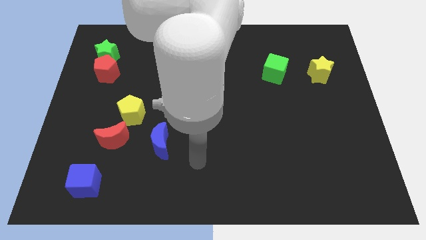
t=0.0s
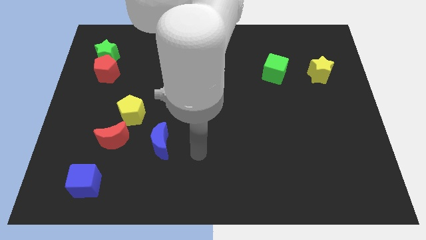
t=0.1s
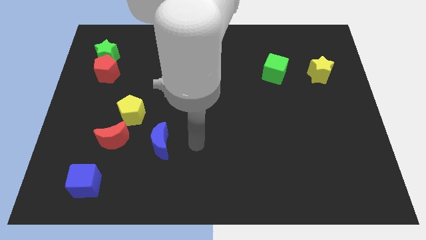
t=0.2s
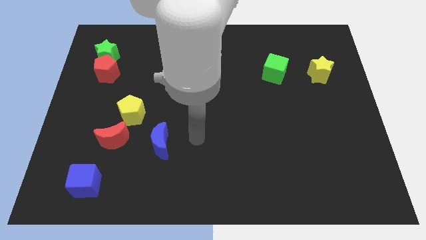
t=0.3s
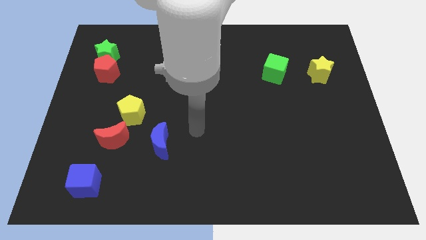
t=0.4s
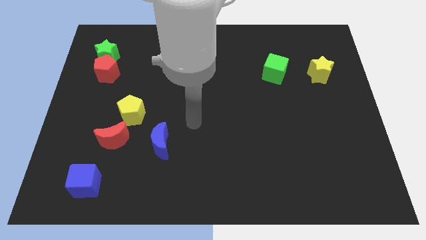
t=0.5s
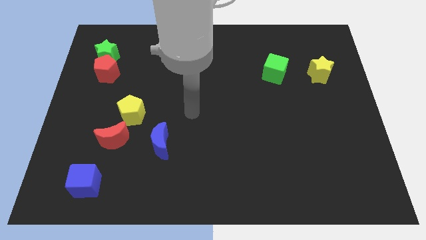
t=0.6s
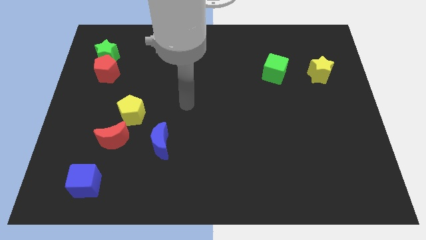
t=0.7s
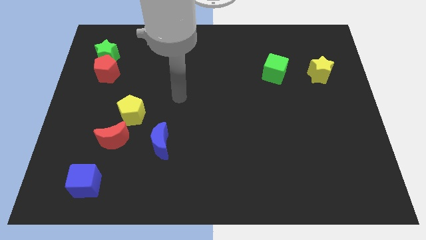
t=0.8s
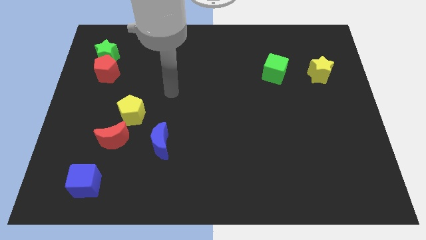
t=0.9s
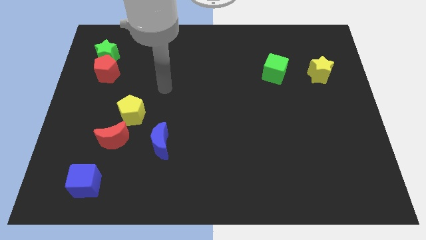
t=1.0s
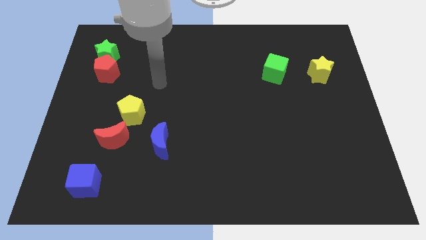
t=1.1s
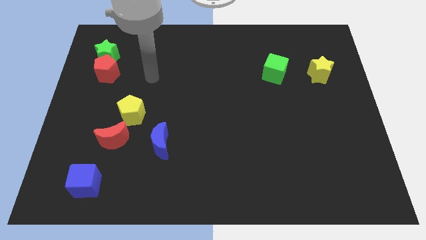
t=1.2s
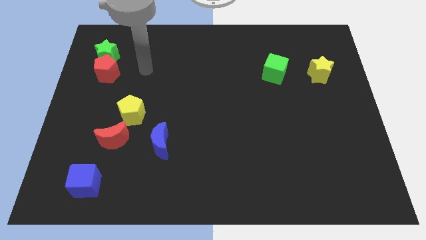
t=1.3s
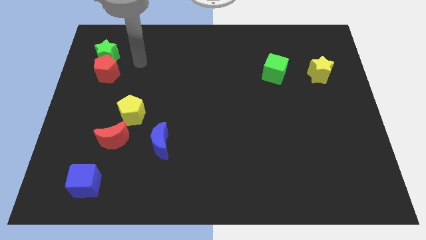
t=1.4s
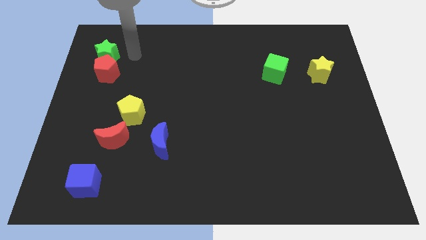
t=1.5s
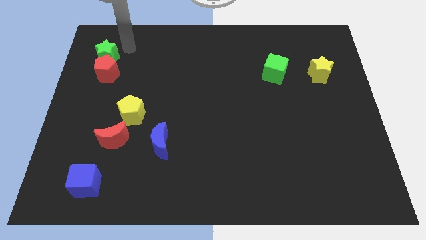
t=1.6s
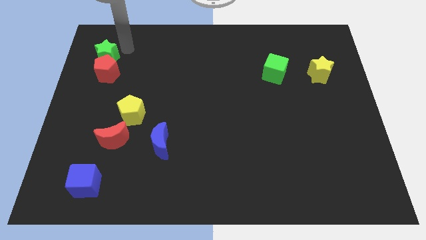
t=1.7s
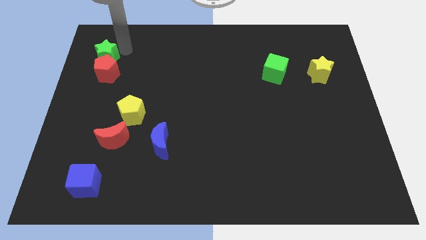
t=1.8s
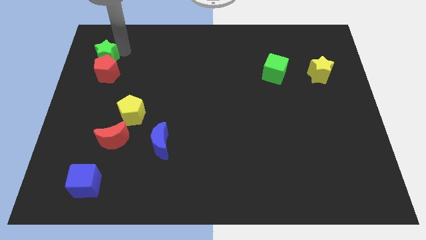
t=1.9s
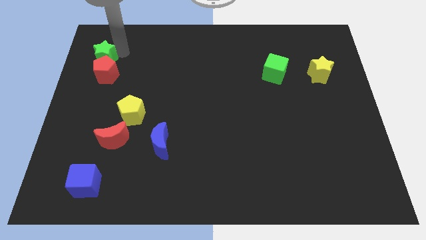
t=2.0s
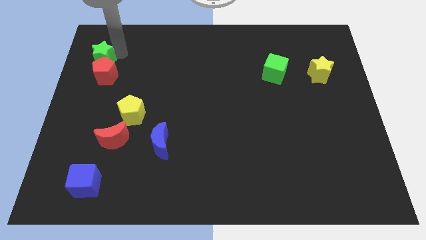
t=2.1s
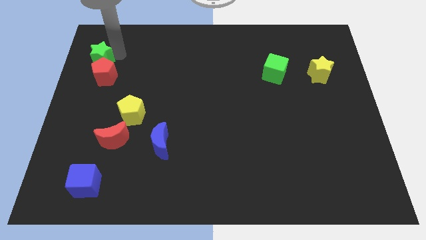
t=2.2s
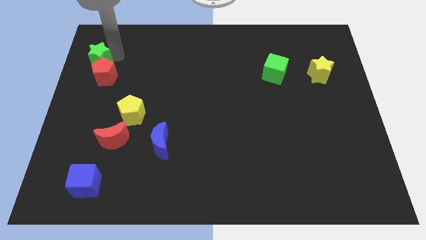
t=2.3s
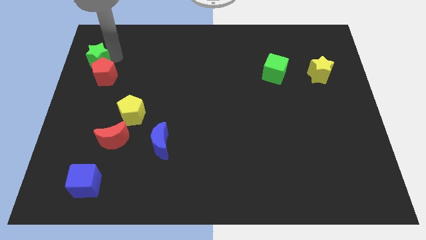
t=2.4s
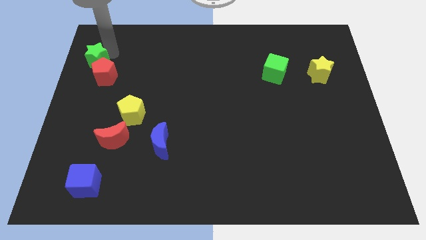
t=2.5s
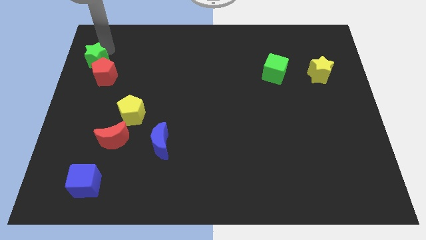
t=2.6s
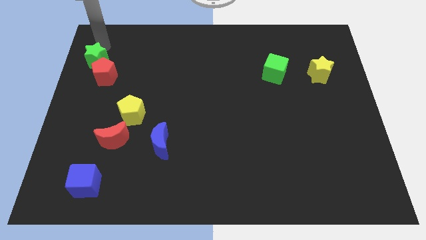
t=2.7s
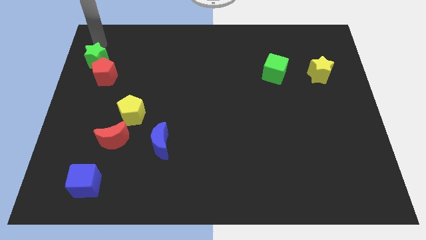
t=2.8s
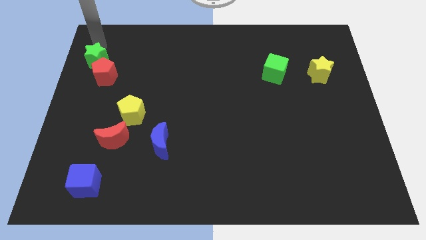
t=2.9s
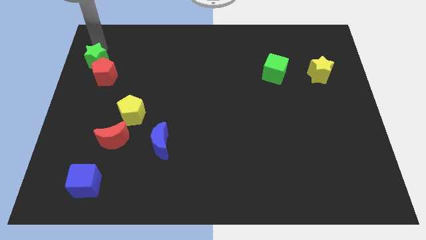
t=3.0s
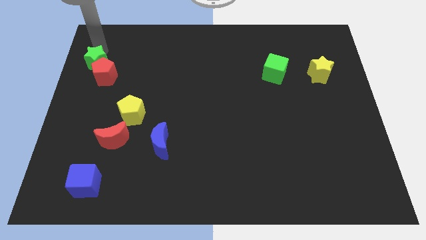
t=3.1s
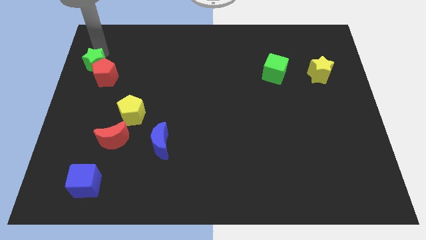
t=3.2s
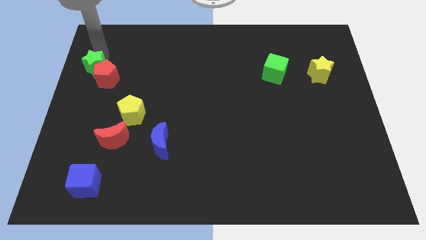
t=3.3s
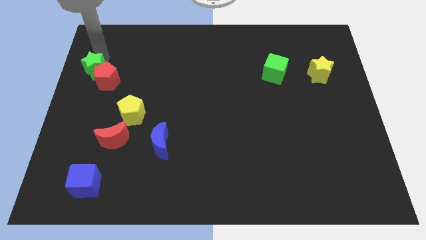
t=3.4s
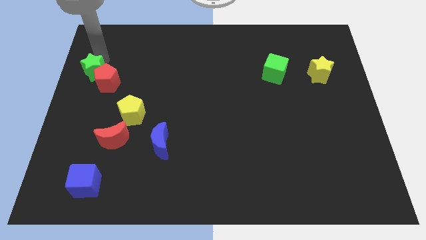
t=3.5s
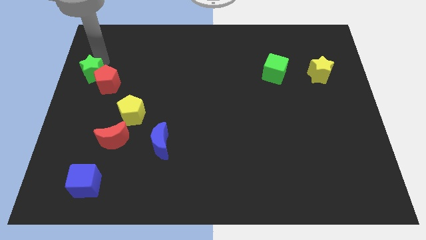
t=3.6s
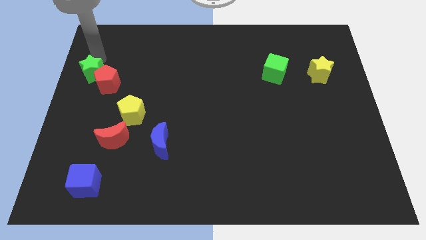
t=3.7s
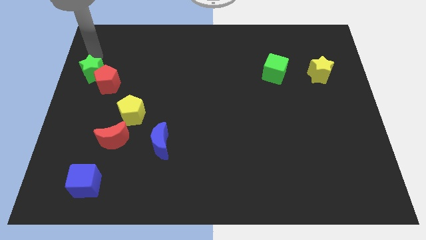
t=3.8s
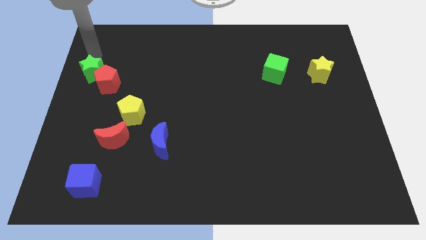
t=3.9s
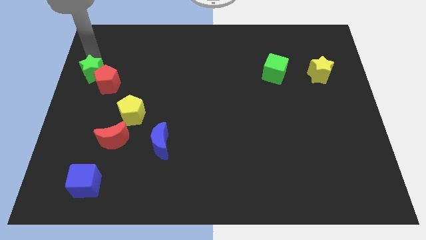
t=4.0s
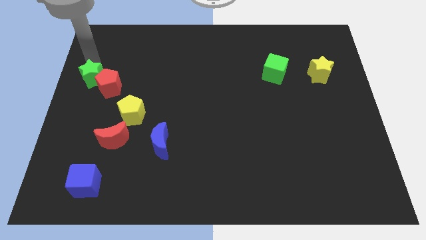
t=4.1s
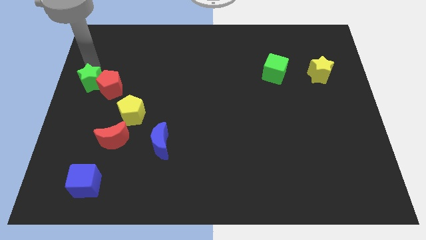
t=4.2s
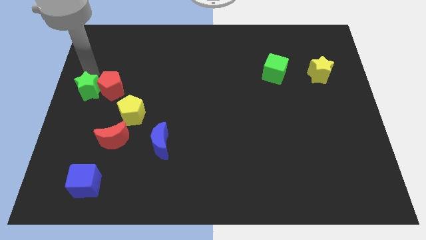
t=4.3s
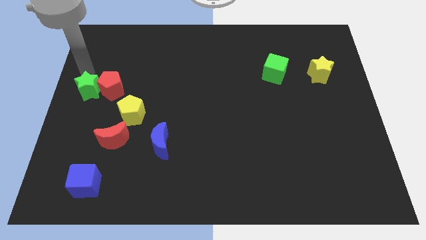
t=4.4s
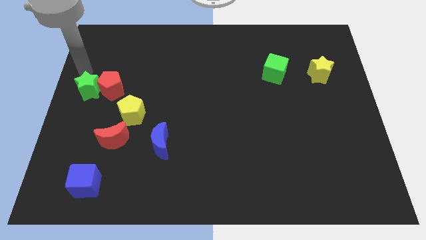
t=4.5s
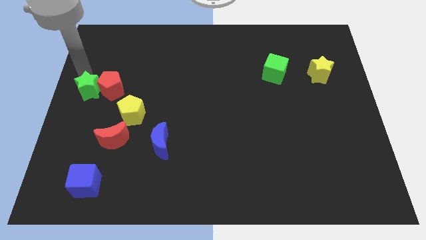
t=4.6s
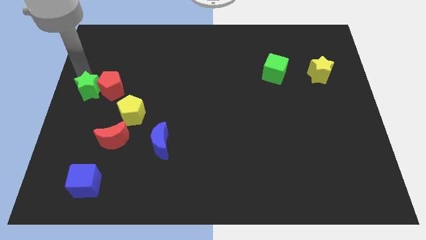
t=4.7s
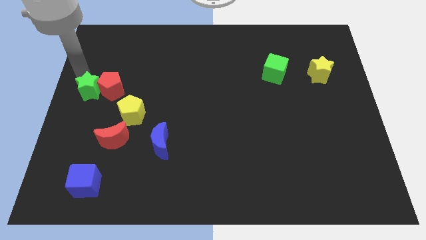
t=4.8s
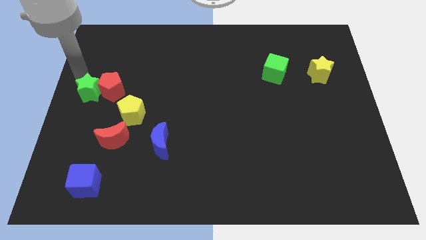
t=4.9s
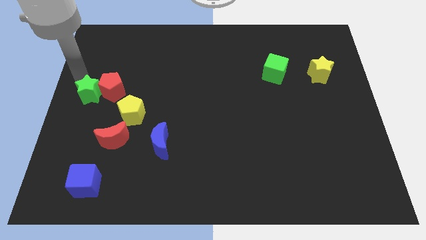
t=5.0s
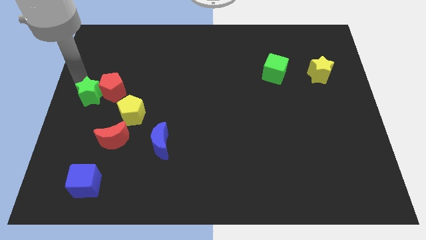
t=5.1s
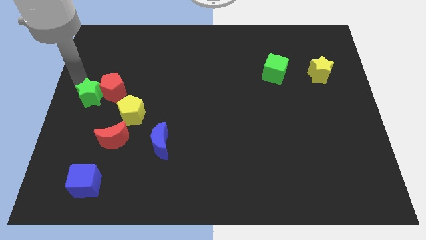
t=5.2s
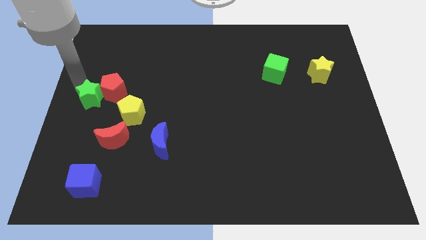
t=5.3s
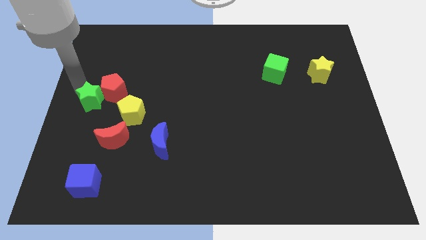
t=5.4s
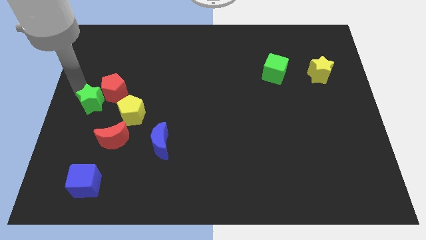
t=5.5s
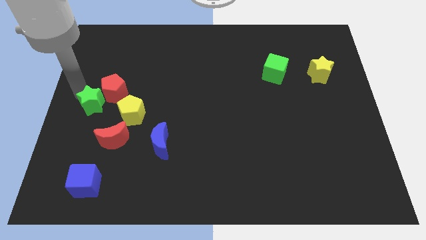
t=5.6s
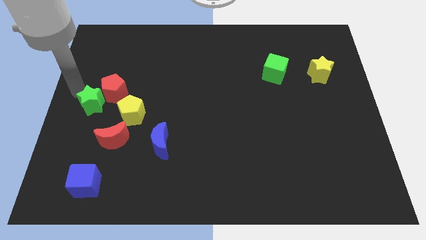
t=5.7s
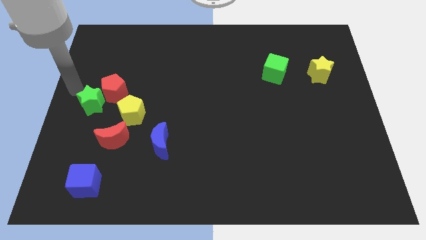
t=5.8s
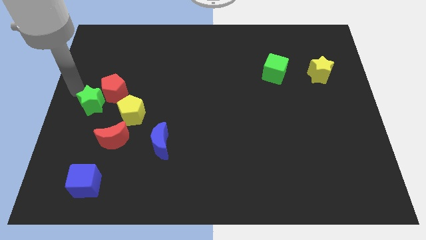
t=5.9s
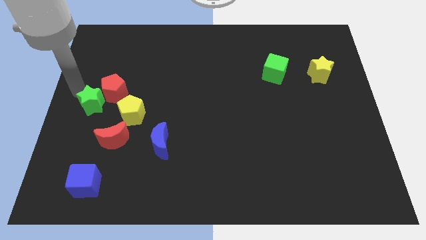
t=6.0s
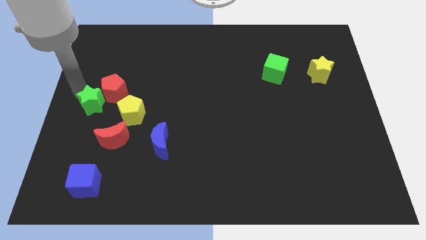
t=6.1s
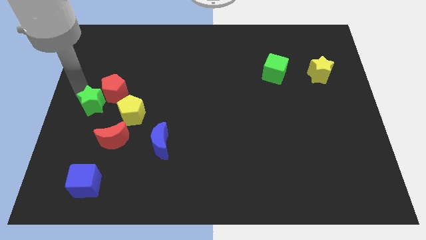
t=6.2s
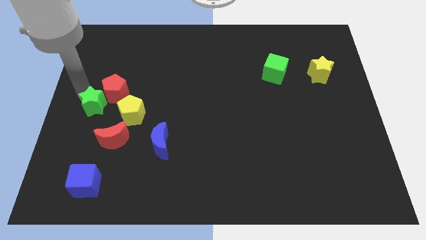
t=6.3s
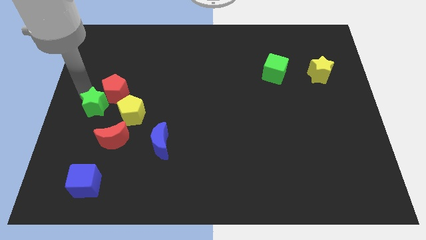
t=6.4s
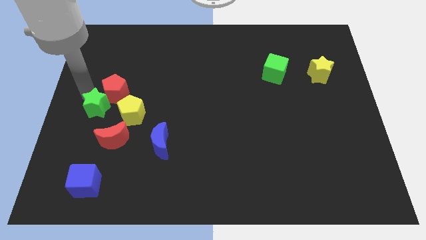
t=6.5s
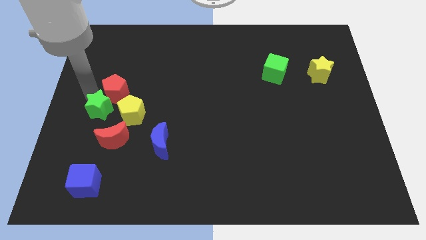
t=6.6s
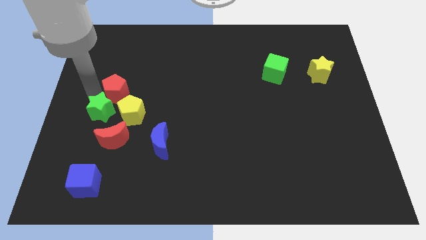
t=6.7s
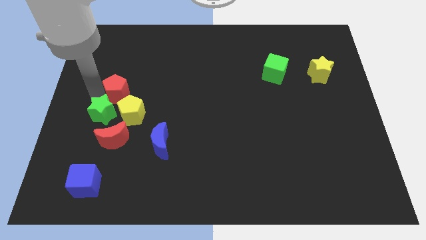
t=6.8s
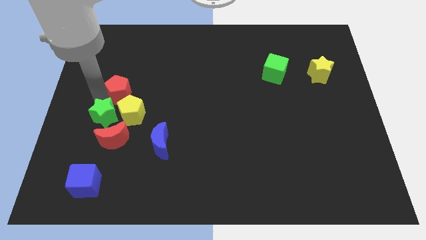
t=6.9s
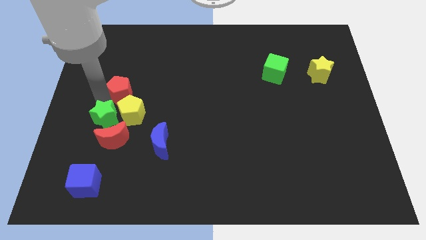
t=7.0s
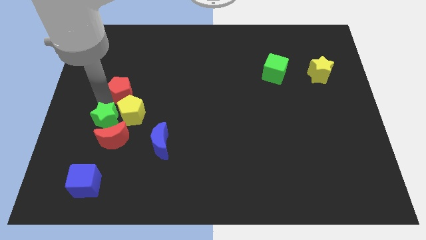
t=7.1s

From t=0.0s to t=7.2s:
put the green star towards the red moon

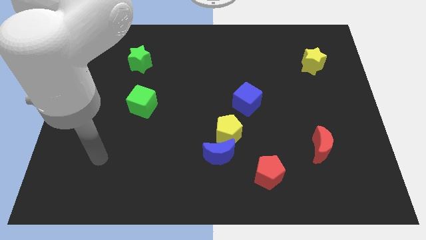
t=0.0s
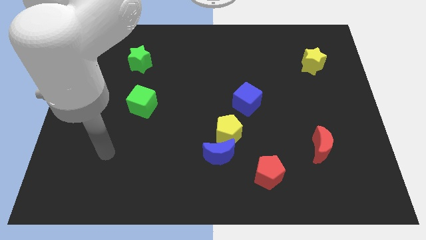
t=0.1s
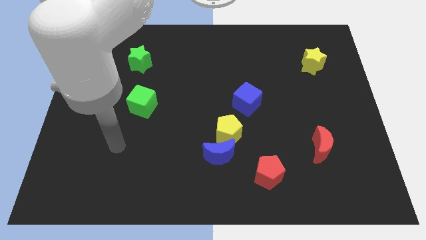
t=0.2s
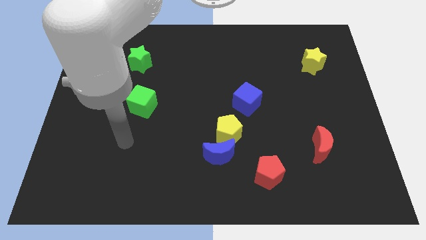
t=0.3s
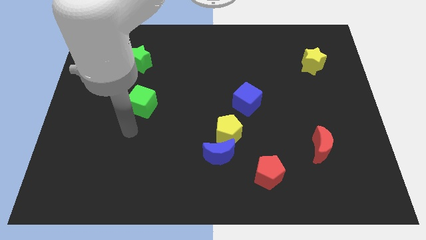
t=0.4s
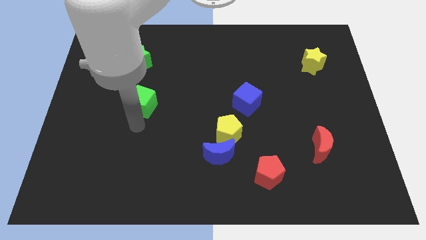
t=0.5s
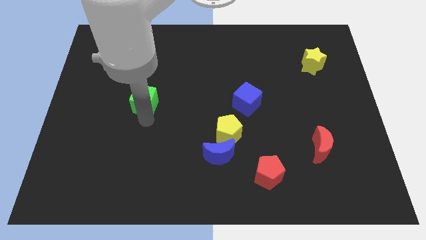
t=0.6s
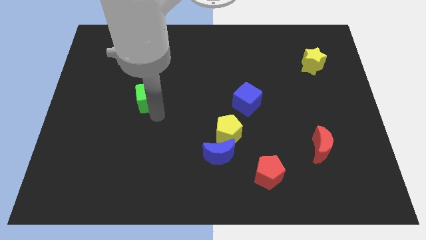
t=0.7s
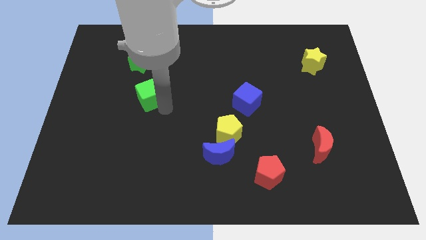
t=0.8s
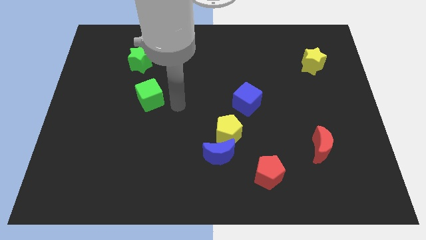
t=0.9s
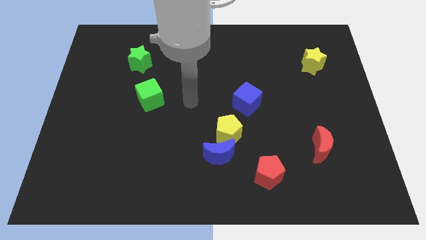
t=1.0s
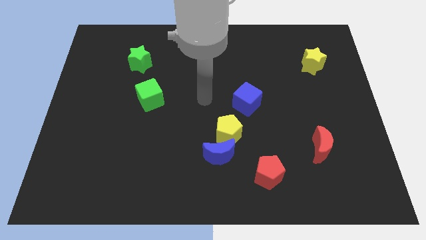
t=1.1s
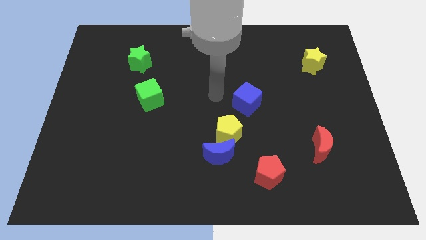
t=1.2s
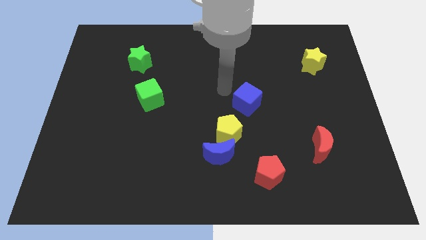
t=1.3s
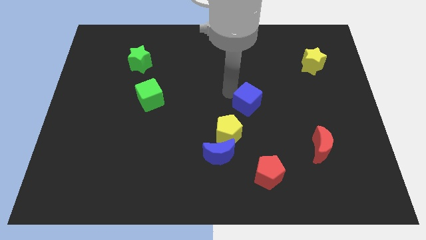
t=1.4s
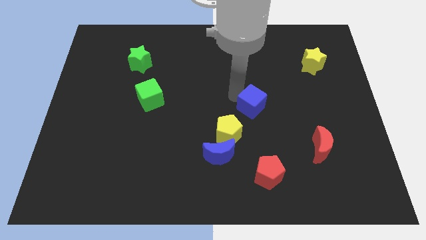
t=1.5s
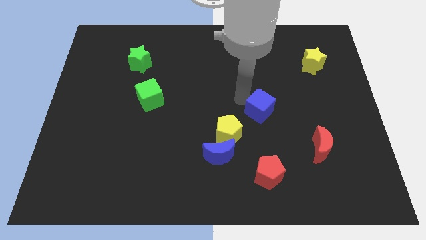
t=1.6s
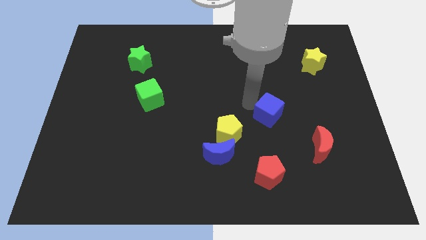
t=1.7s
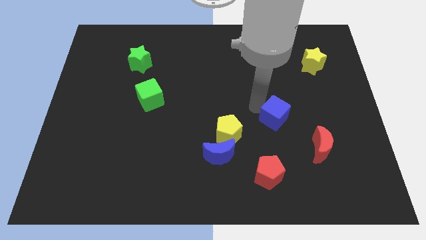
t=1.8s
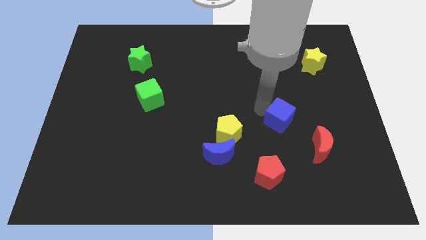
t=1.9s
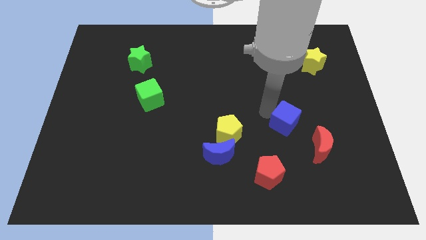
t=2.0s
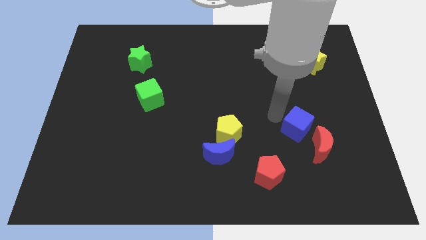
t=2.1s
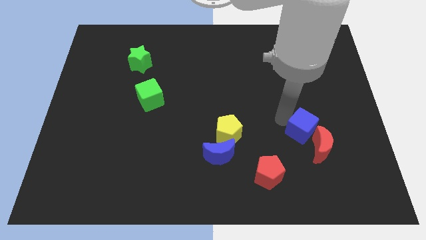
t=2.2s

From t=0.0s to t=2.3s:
move the blue cube to the red moon
